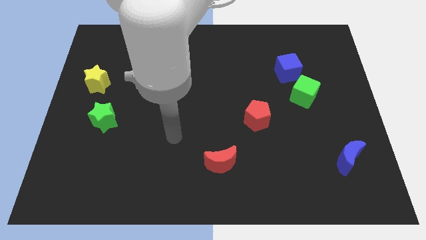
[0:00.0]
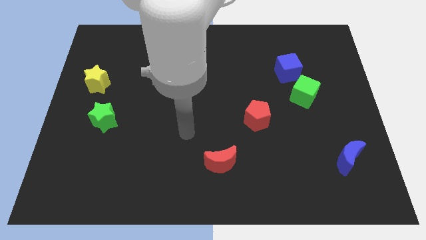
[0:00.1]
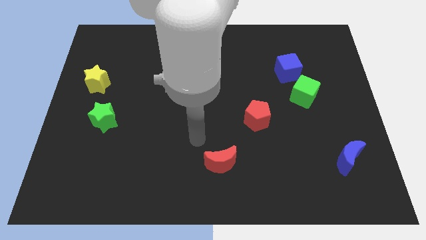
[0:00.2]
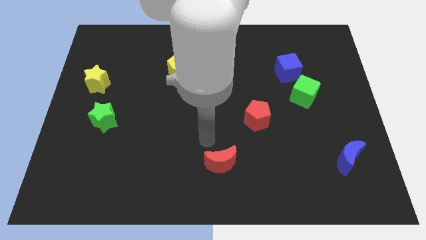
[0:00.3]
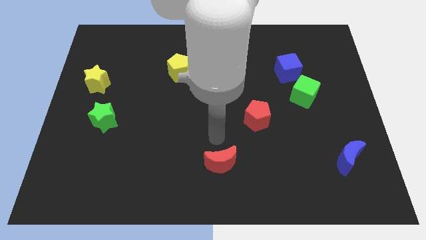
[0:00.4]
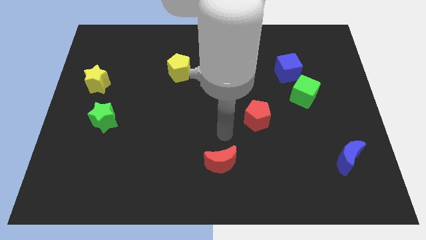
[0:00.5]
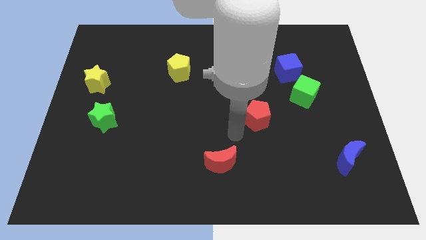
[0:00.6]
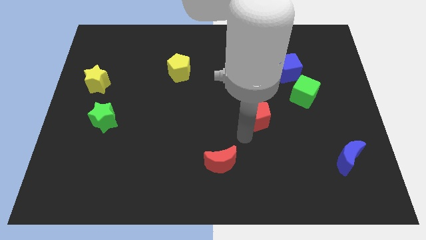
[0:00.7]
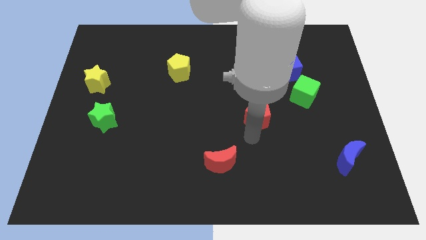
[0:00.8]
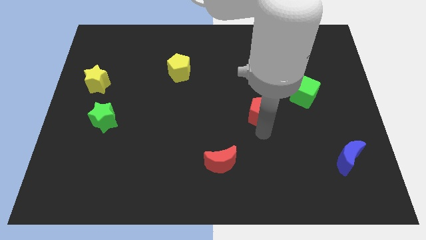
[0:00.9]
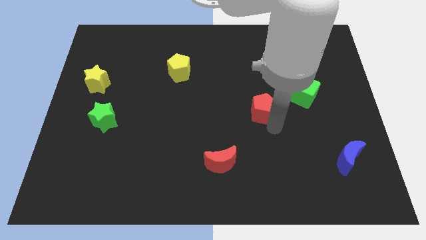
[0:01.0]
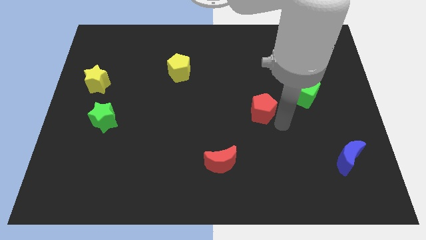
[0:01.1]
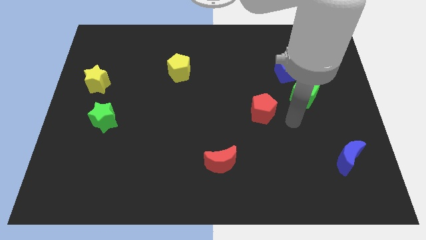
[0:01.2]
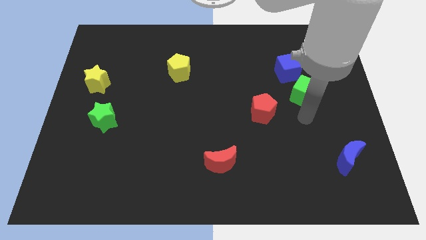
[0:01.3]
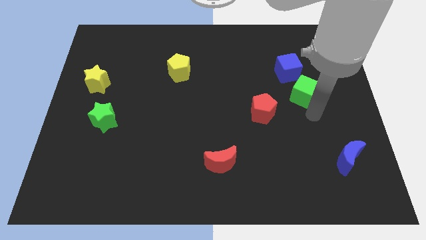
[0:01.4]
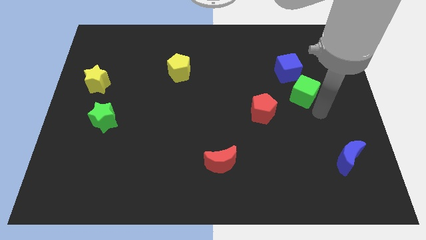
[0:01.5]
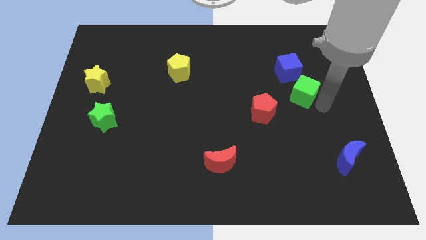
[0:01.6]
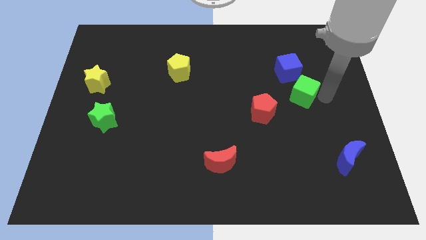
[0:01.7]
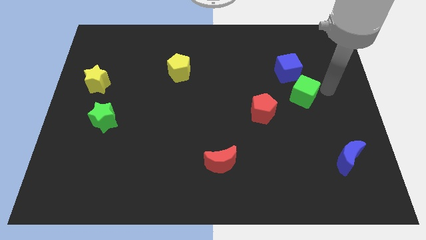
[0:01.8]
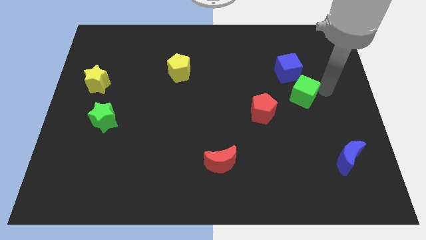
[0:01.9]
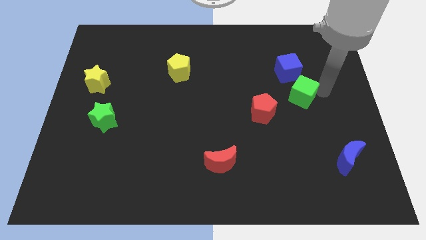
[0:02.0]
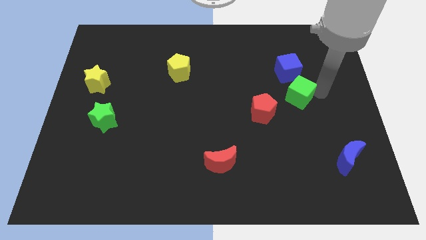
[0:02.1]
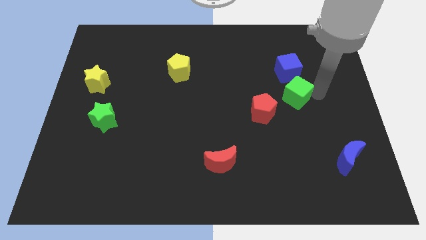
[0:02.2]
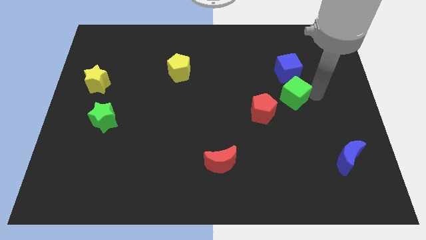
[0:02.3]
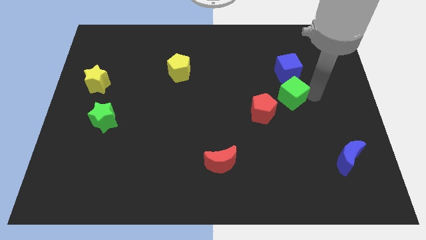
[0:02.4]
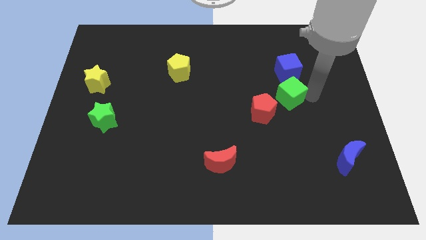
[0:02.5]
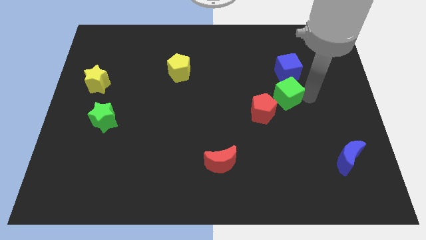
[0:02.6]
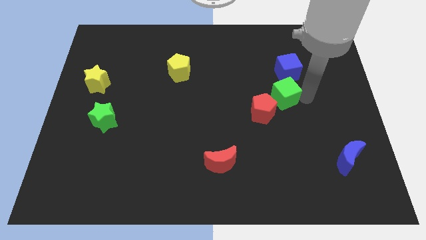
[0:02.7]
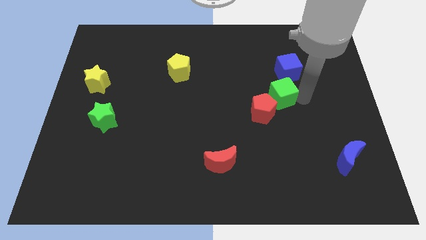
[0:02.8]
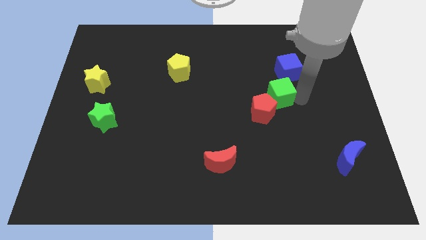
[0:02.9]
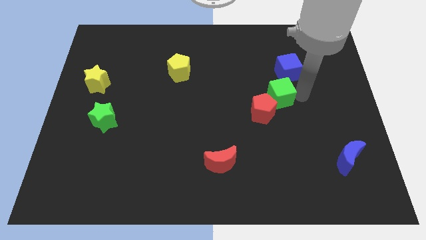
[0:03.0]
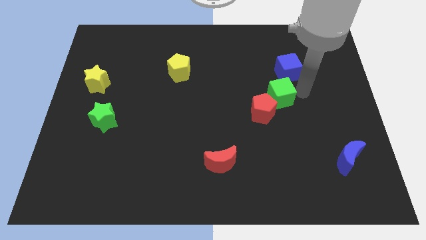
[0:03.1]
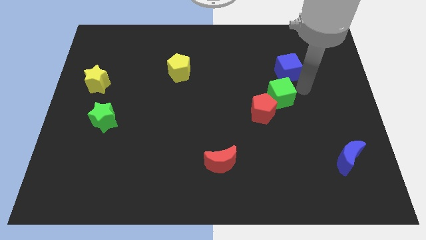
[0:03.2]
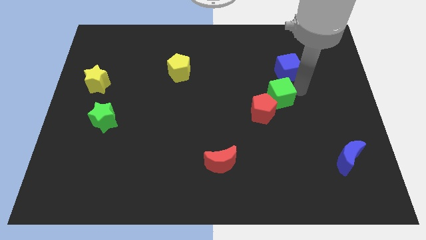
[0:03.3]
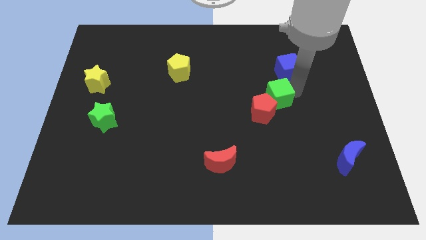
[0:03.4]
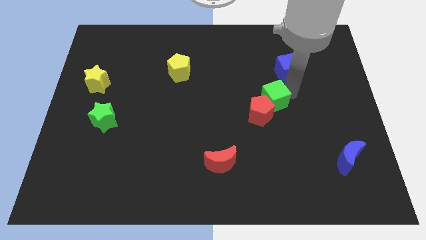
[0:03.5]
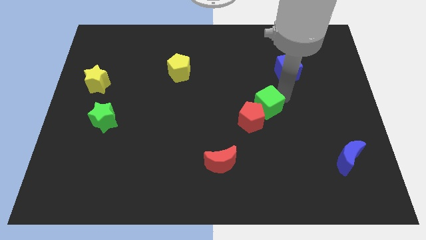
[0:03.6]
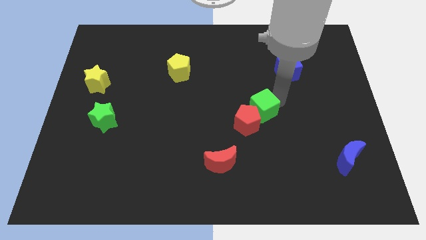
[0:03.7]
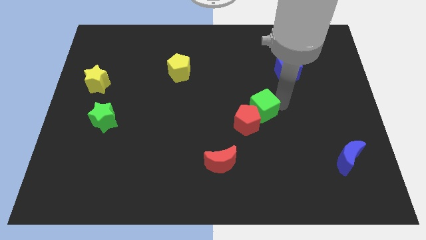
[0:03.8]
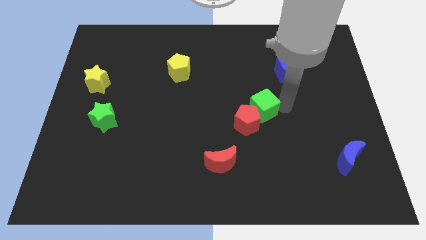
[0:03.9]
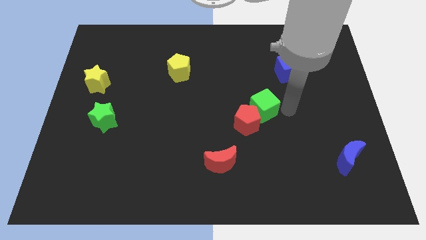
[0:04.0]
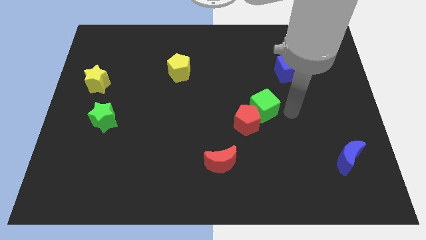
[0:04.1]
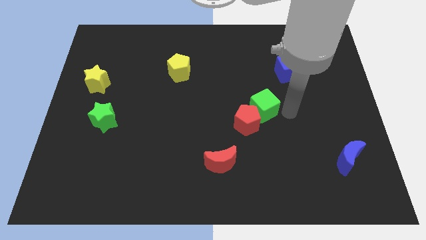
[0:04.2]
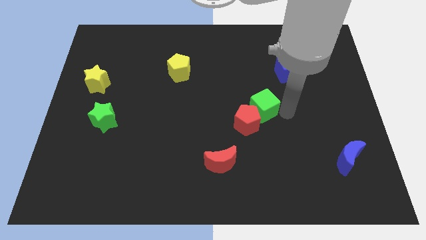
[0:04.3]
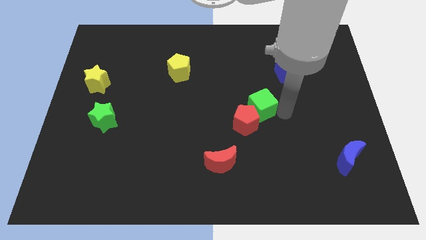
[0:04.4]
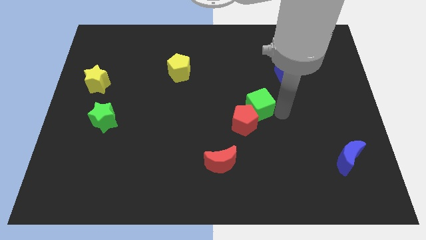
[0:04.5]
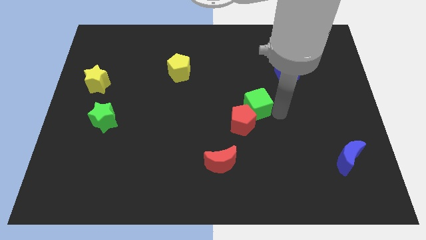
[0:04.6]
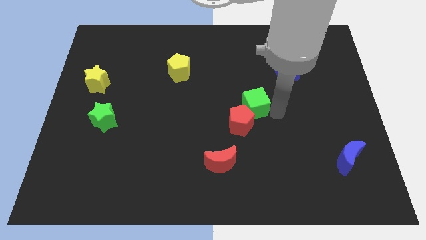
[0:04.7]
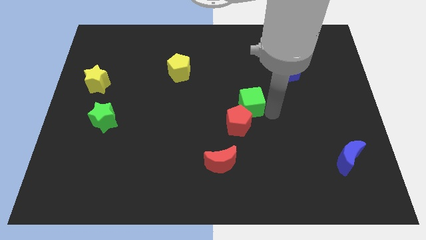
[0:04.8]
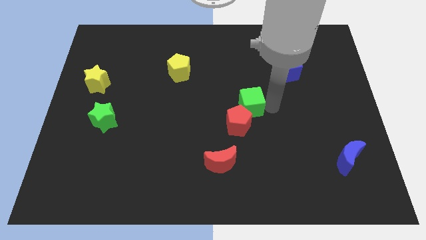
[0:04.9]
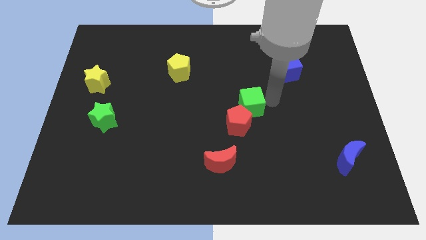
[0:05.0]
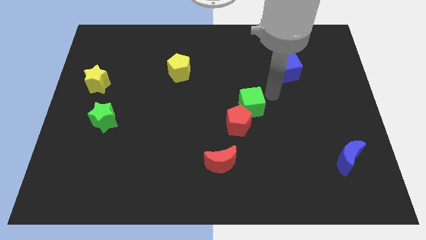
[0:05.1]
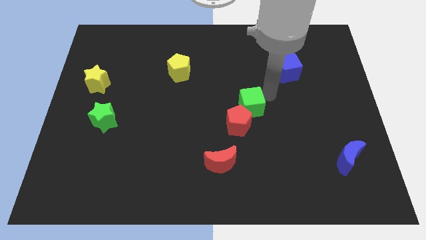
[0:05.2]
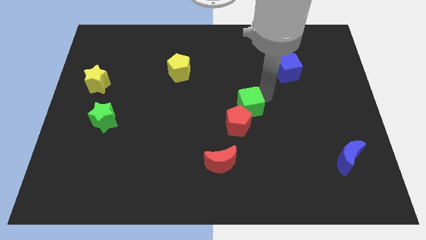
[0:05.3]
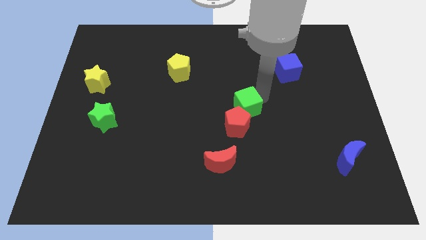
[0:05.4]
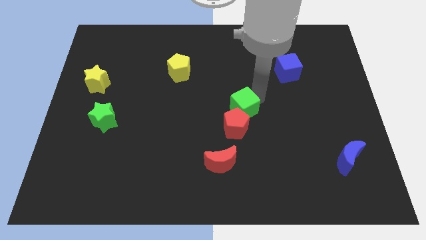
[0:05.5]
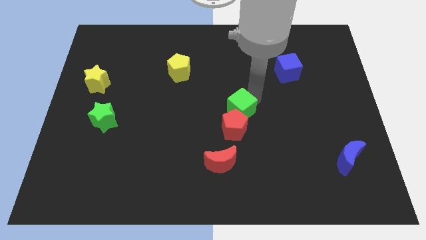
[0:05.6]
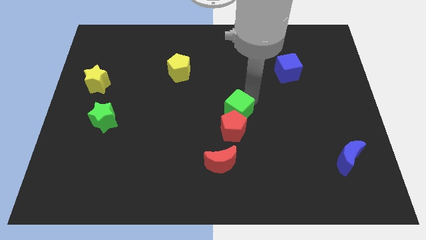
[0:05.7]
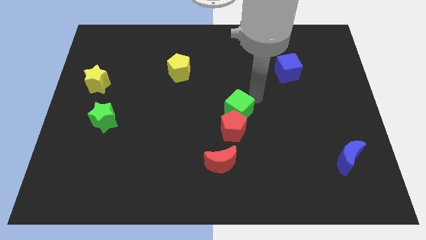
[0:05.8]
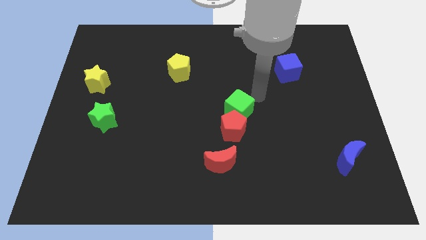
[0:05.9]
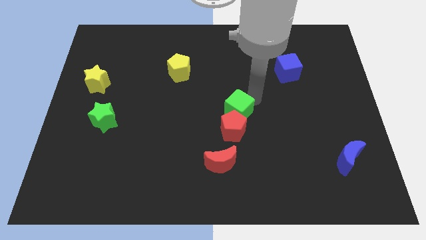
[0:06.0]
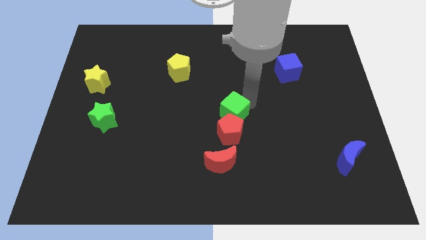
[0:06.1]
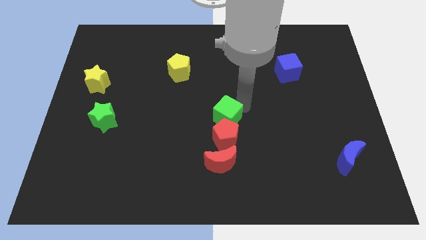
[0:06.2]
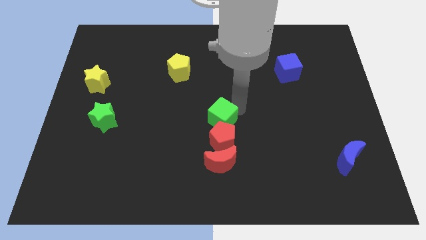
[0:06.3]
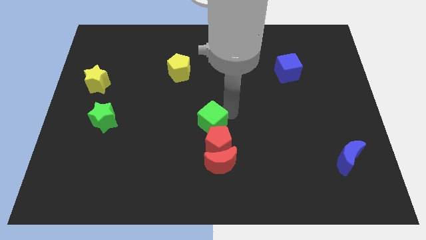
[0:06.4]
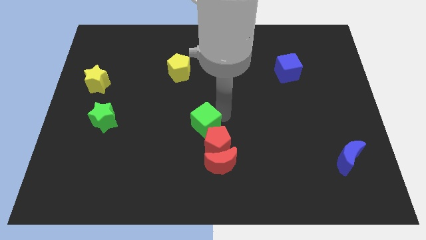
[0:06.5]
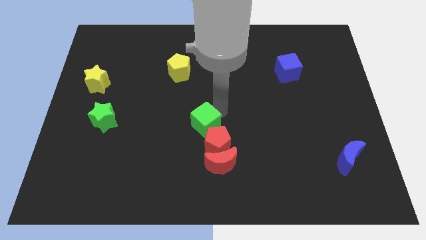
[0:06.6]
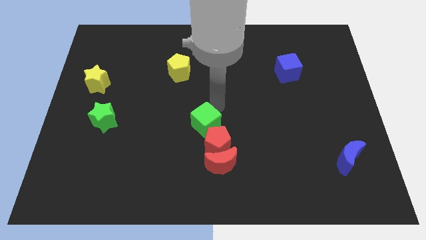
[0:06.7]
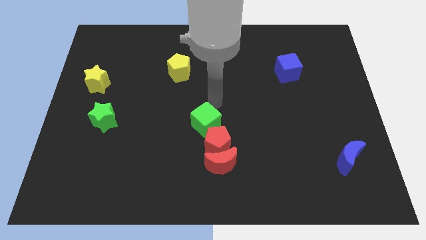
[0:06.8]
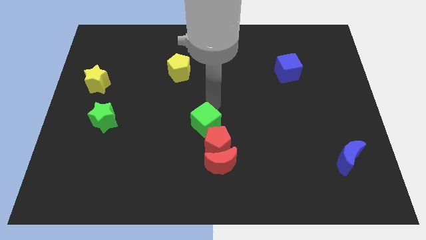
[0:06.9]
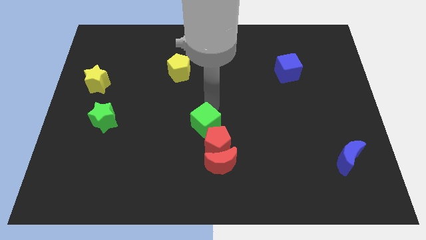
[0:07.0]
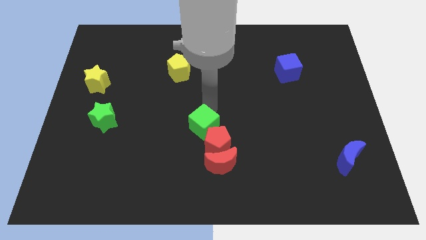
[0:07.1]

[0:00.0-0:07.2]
move the green cube diagonally up and to the left of the red moon

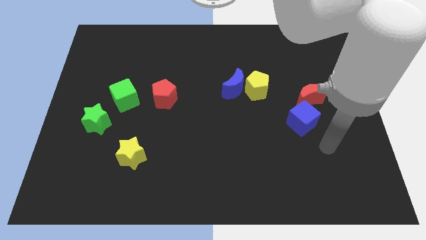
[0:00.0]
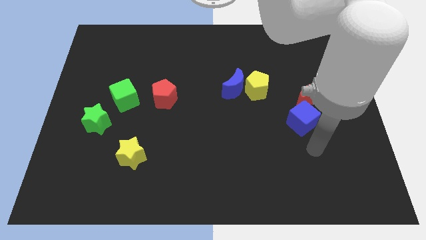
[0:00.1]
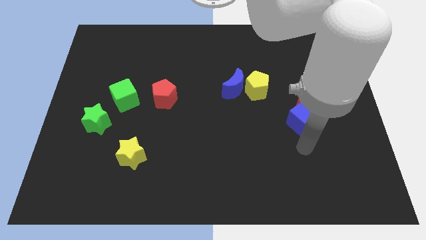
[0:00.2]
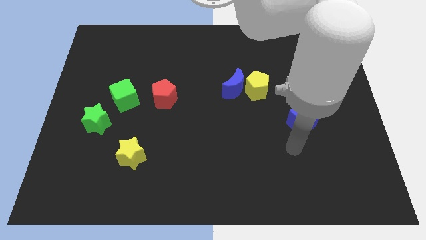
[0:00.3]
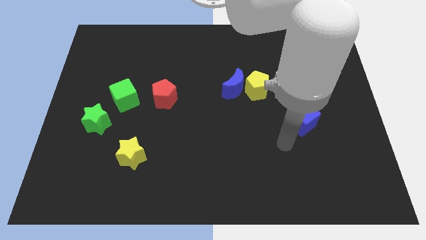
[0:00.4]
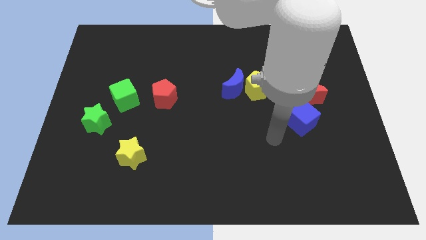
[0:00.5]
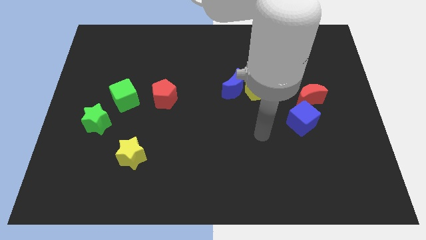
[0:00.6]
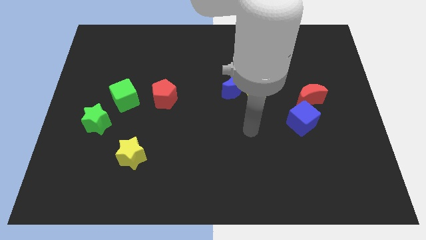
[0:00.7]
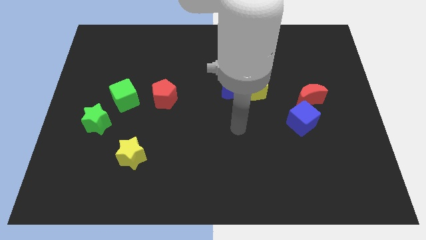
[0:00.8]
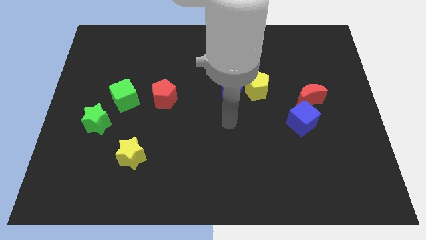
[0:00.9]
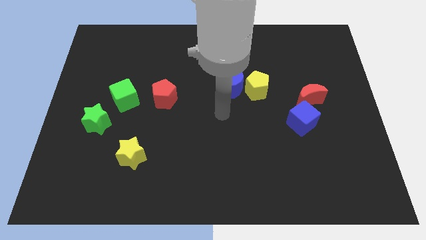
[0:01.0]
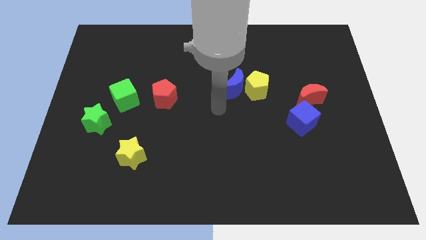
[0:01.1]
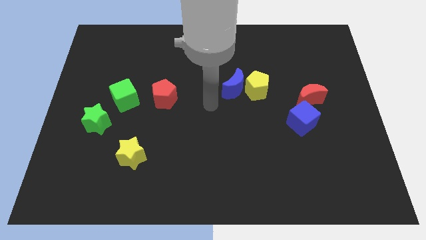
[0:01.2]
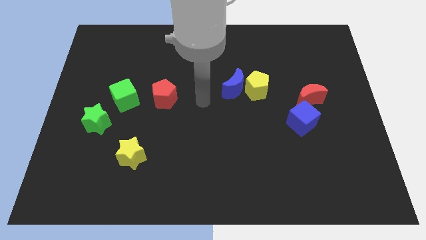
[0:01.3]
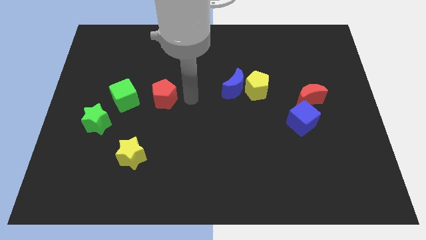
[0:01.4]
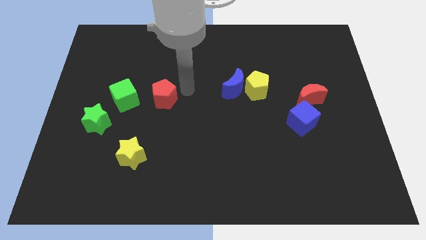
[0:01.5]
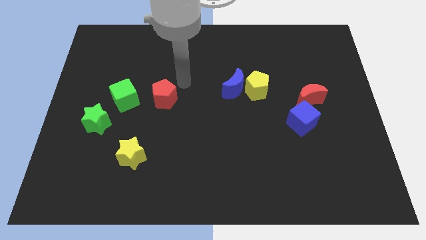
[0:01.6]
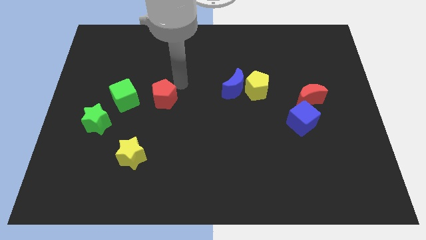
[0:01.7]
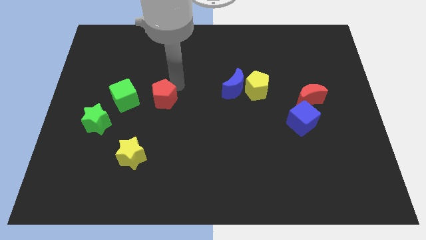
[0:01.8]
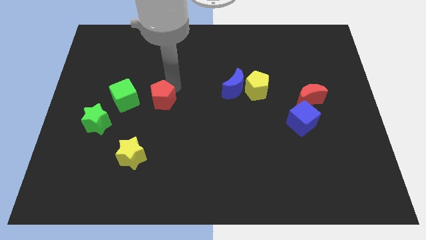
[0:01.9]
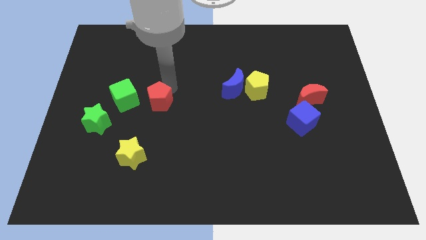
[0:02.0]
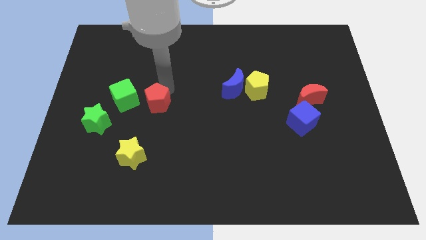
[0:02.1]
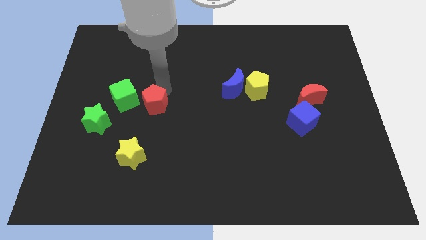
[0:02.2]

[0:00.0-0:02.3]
push the red pentagon to the top of the yellow star
